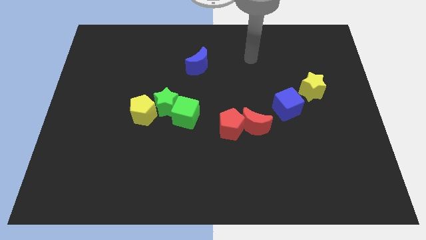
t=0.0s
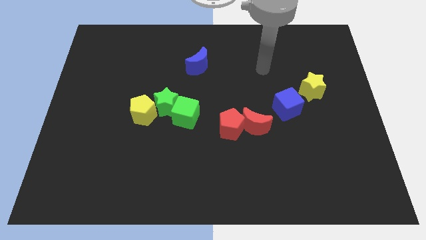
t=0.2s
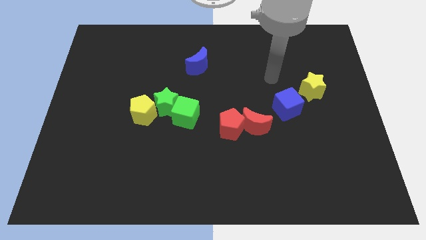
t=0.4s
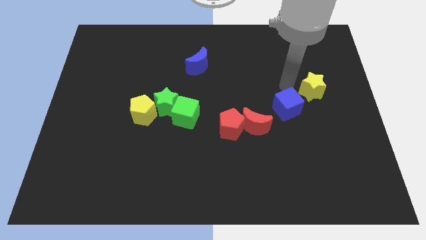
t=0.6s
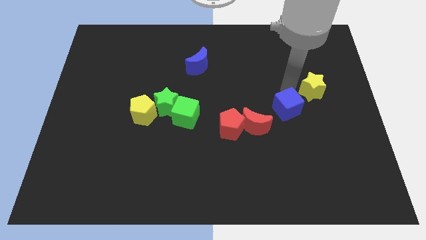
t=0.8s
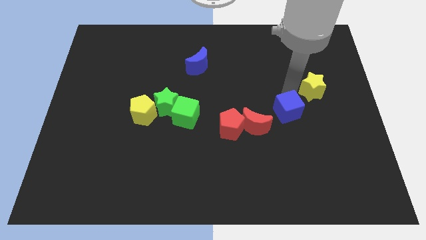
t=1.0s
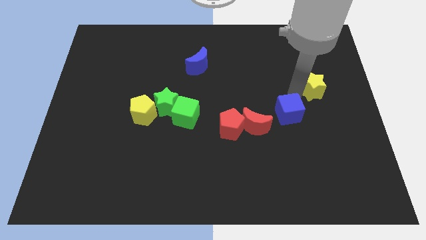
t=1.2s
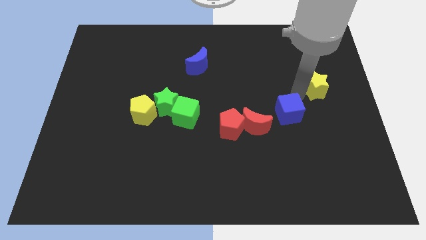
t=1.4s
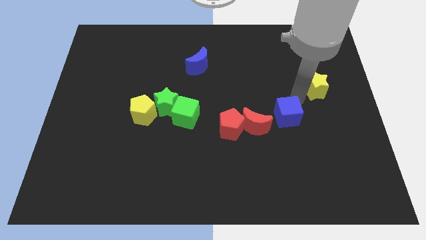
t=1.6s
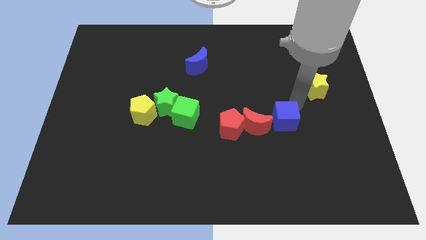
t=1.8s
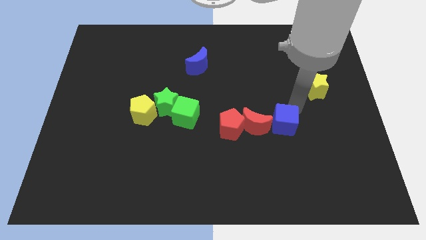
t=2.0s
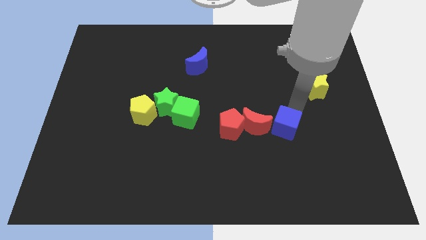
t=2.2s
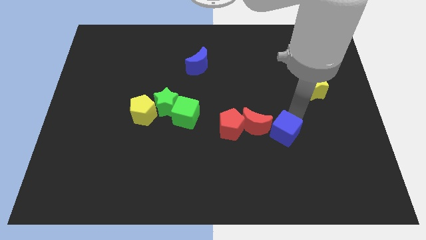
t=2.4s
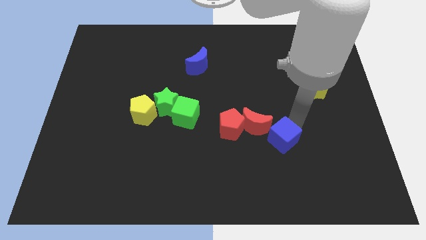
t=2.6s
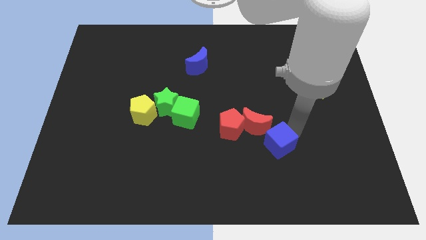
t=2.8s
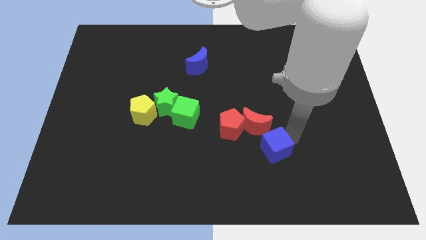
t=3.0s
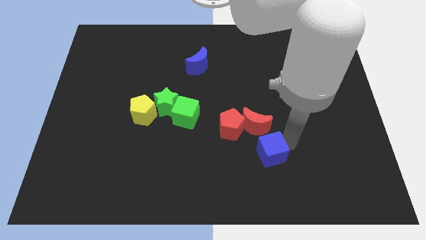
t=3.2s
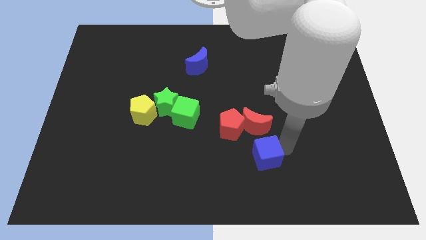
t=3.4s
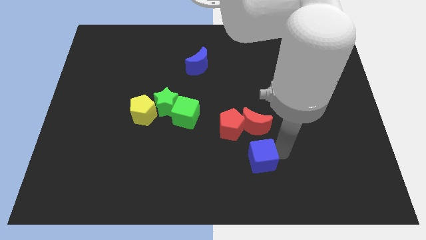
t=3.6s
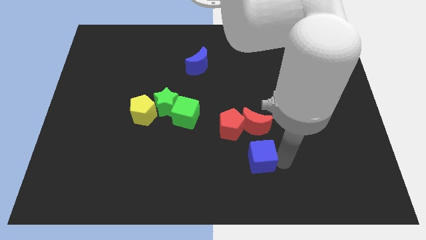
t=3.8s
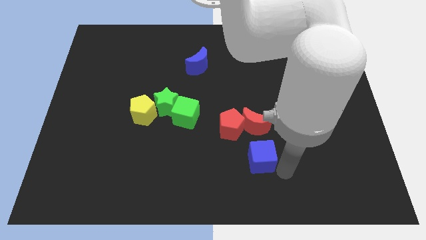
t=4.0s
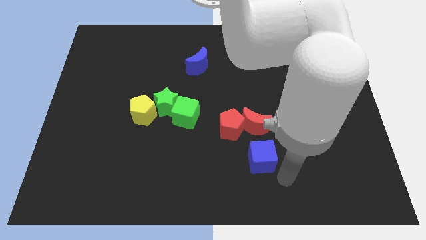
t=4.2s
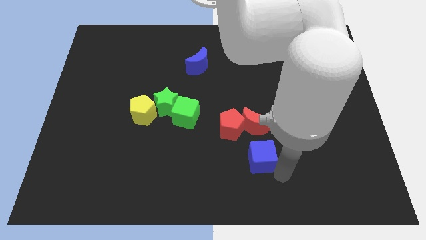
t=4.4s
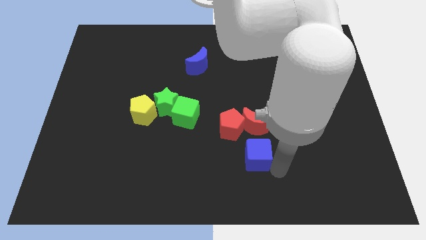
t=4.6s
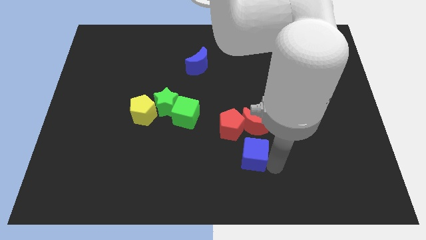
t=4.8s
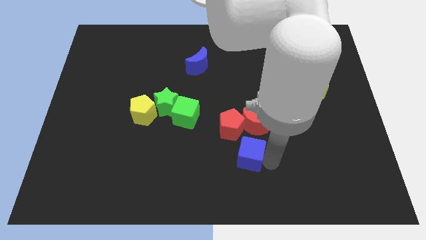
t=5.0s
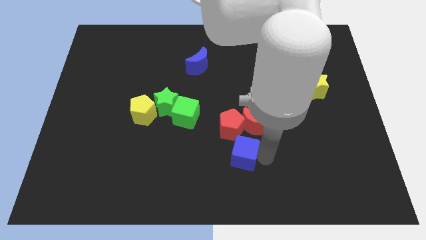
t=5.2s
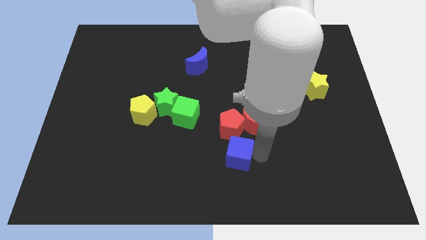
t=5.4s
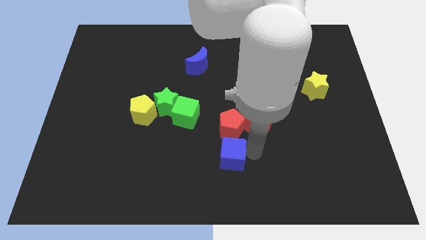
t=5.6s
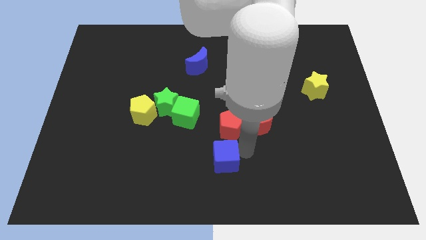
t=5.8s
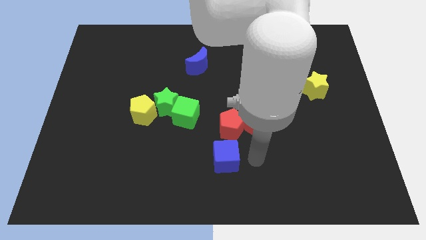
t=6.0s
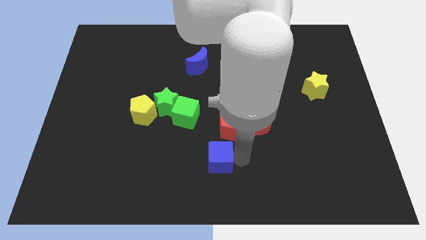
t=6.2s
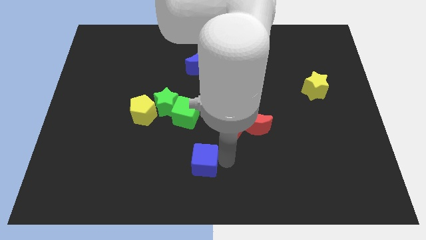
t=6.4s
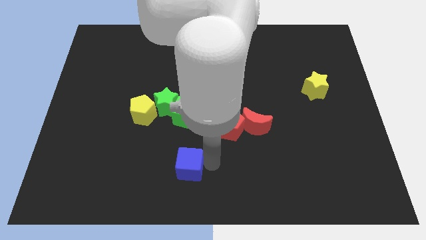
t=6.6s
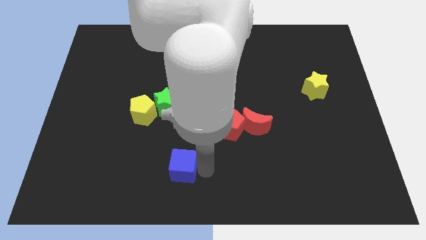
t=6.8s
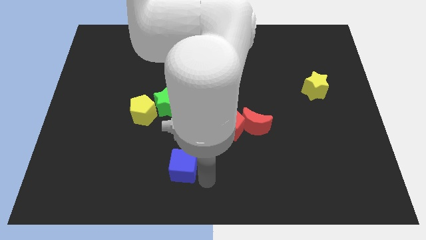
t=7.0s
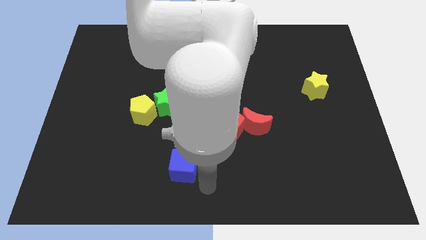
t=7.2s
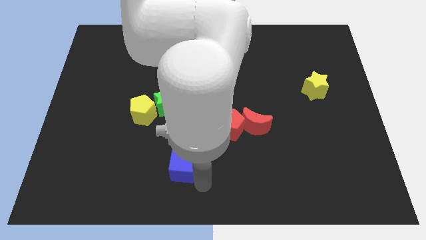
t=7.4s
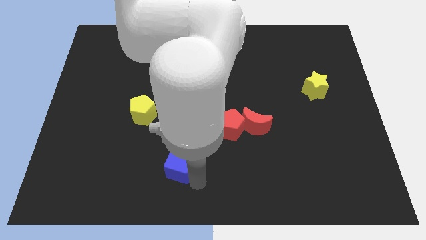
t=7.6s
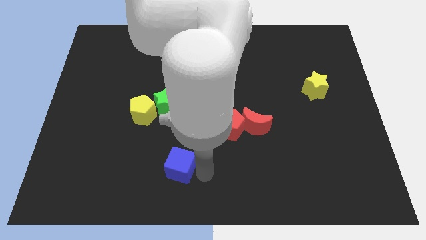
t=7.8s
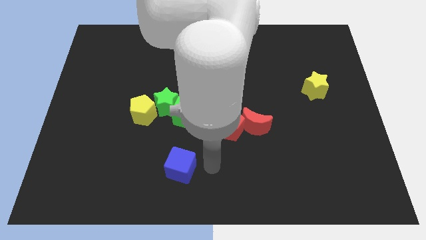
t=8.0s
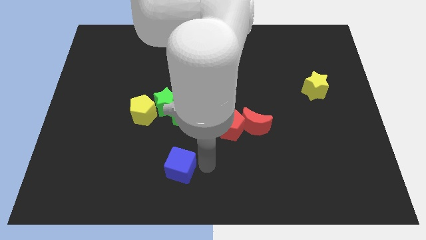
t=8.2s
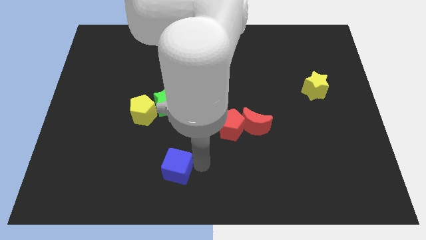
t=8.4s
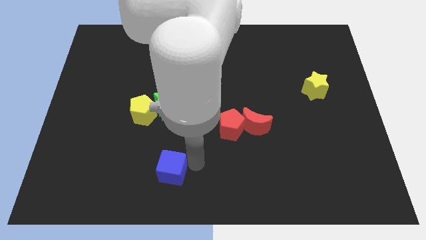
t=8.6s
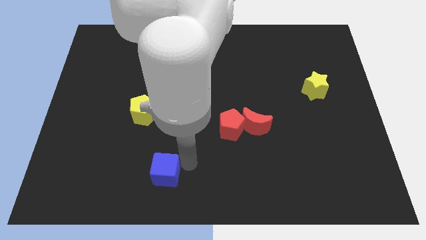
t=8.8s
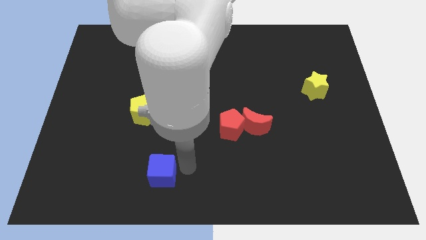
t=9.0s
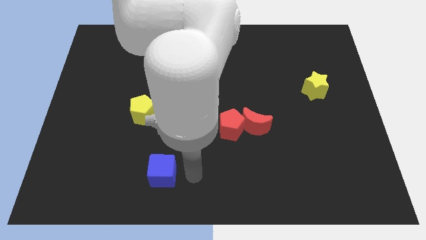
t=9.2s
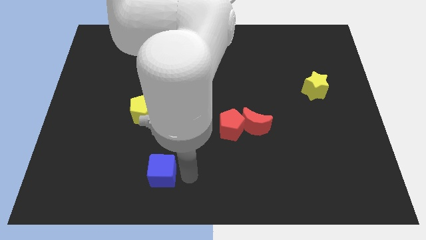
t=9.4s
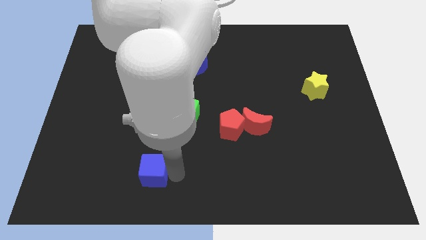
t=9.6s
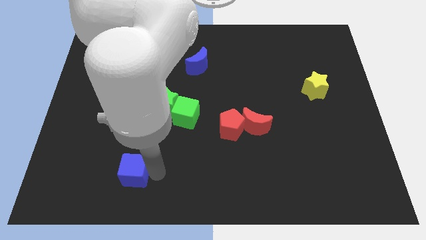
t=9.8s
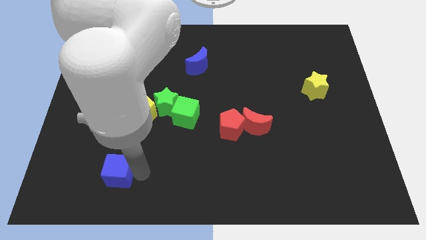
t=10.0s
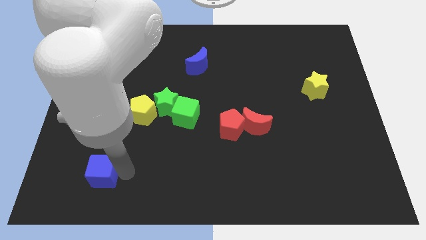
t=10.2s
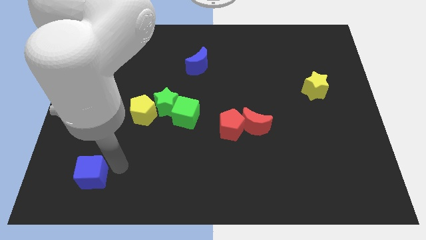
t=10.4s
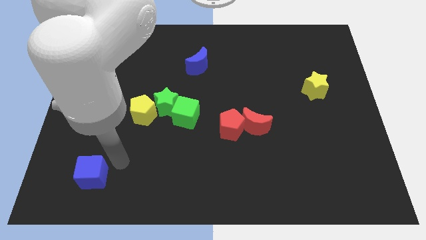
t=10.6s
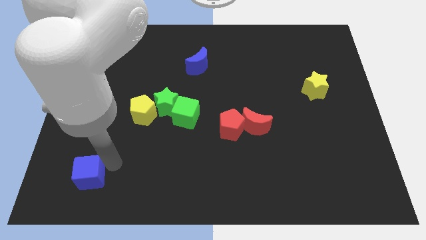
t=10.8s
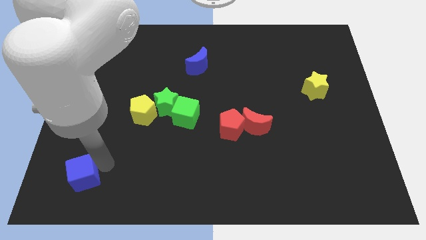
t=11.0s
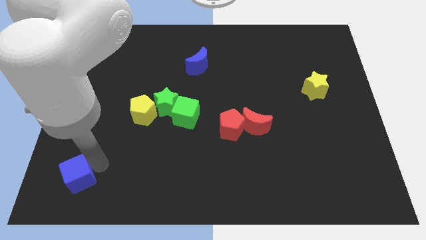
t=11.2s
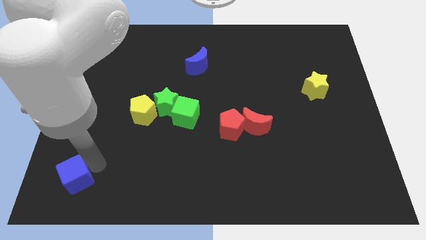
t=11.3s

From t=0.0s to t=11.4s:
push the blue cube to the bottom left of the board
